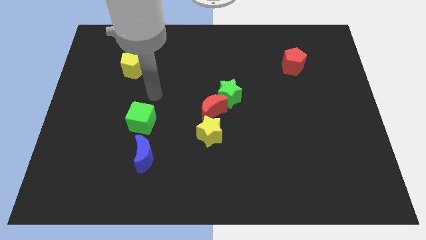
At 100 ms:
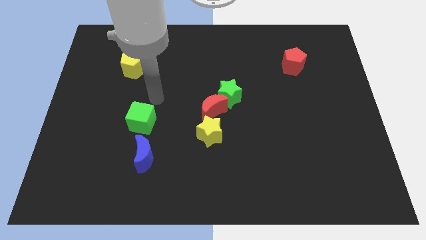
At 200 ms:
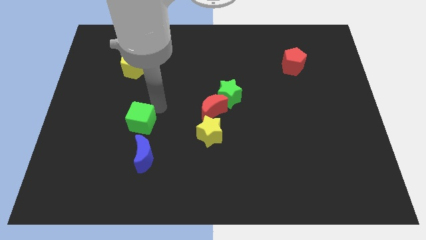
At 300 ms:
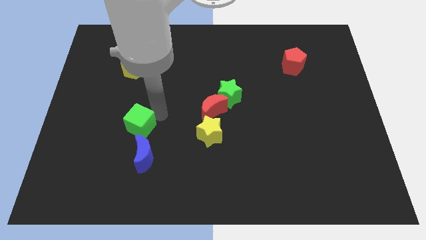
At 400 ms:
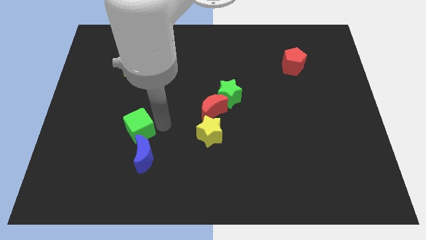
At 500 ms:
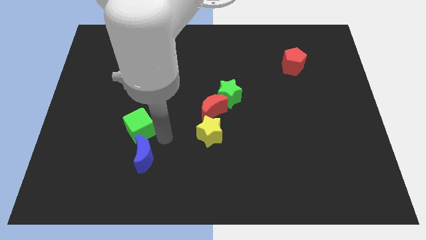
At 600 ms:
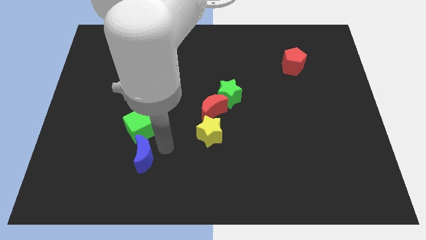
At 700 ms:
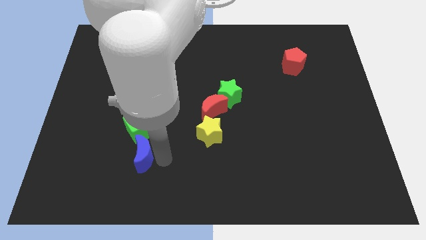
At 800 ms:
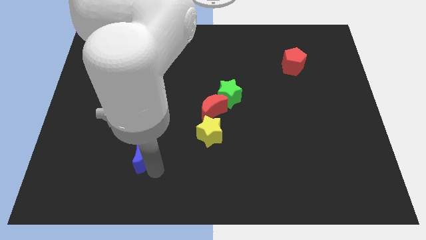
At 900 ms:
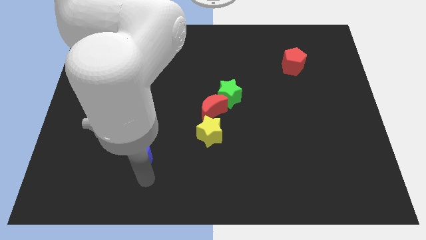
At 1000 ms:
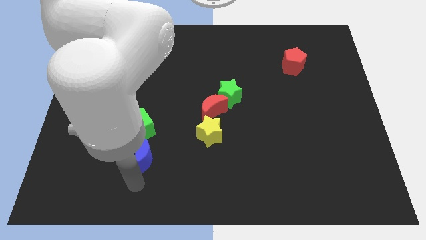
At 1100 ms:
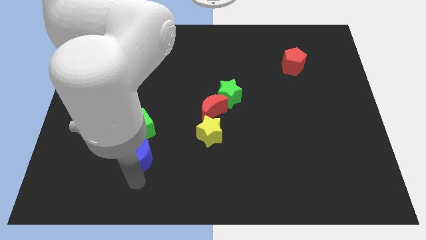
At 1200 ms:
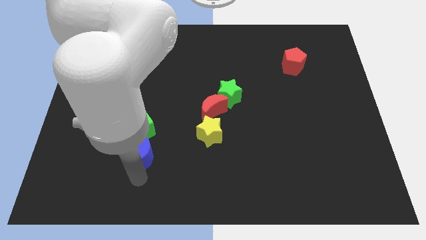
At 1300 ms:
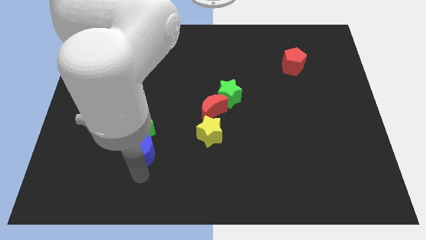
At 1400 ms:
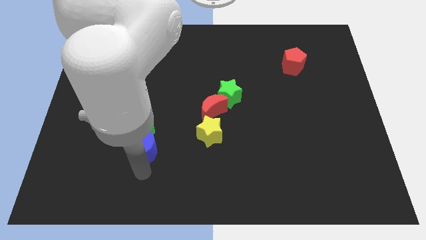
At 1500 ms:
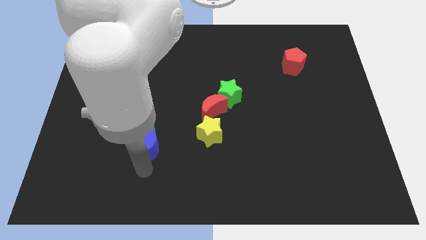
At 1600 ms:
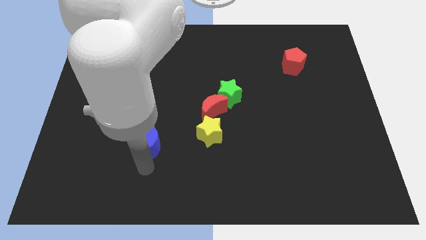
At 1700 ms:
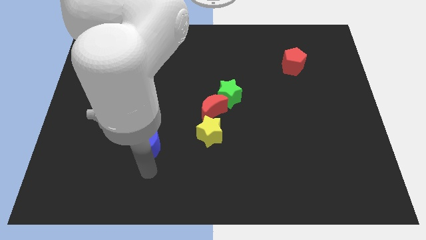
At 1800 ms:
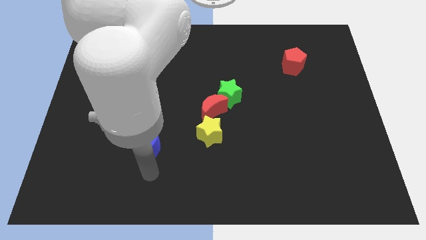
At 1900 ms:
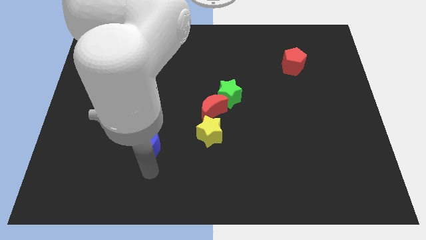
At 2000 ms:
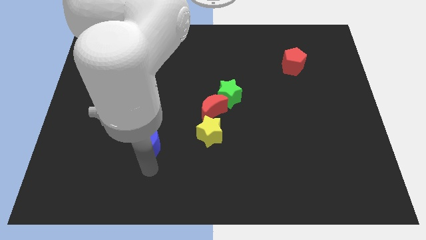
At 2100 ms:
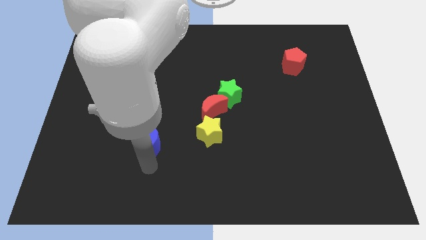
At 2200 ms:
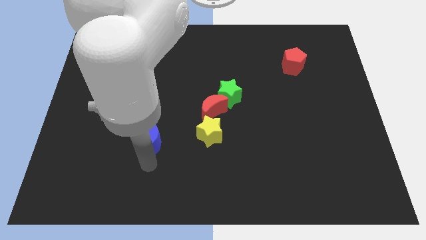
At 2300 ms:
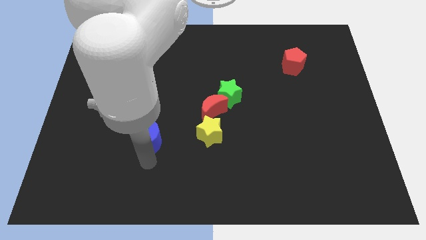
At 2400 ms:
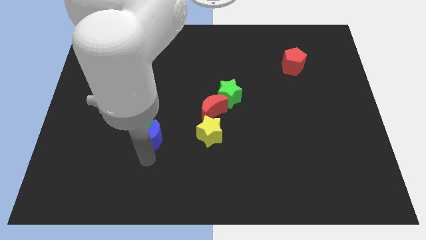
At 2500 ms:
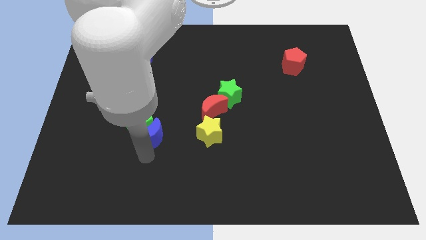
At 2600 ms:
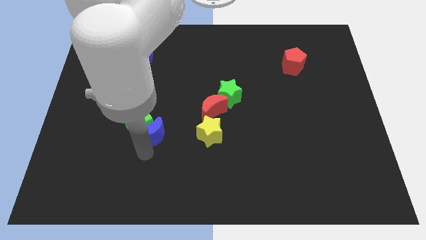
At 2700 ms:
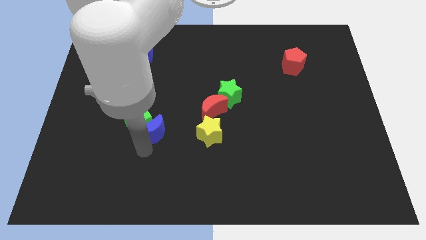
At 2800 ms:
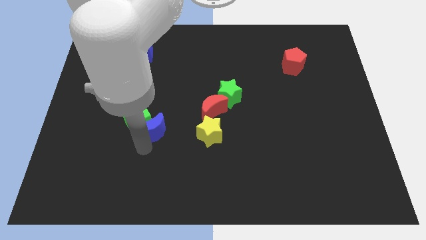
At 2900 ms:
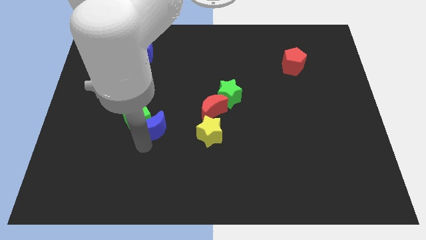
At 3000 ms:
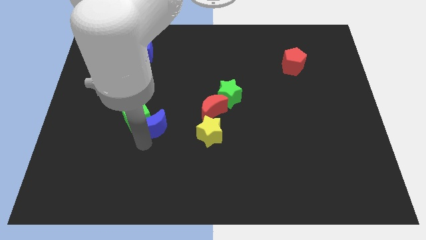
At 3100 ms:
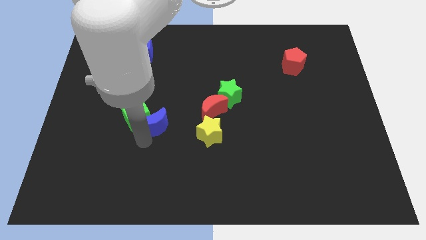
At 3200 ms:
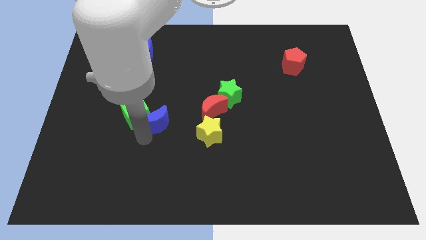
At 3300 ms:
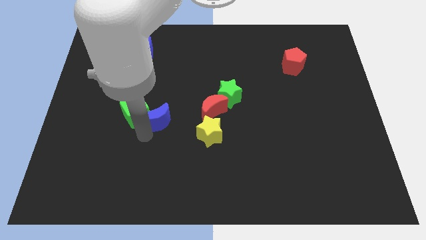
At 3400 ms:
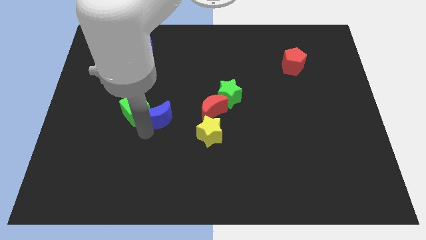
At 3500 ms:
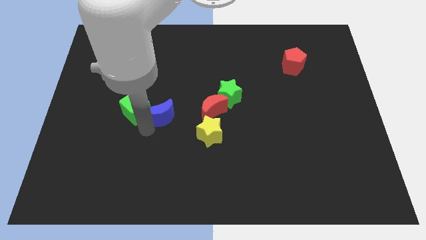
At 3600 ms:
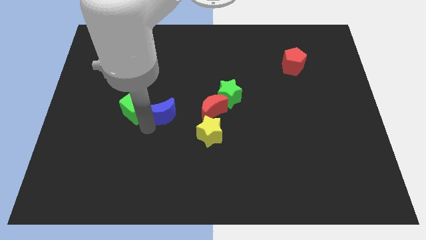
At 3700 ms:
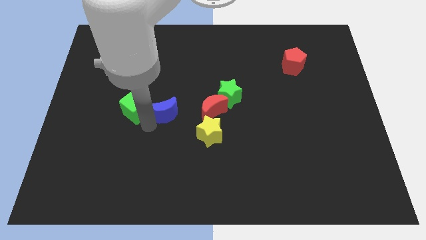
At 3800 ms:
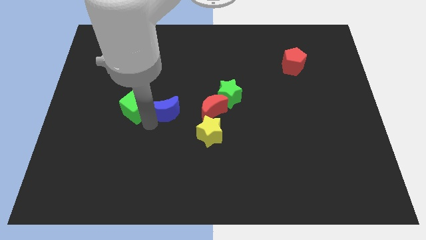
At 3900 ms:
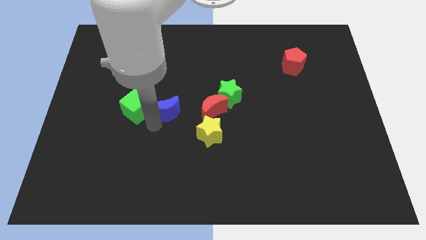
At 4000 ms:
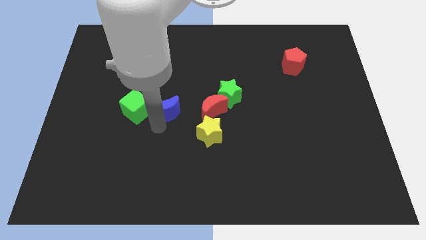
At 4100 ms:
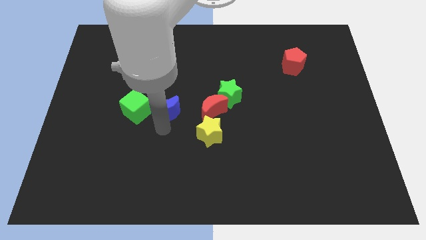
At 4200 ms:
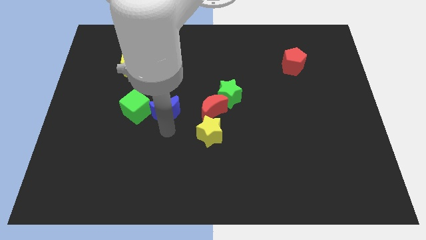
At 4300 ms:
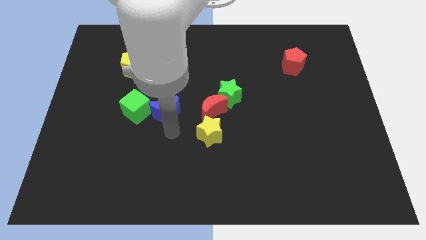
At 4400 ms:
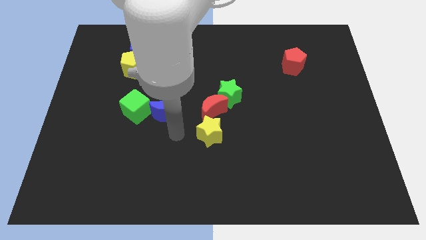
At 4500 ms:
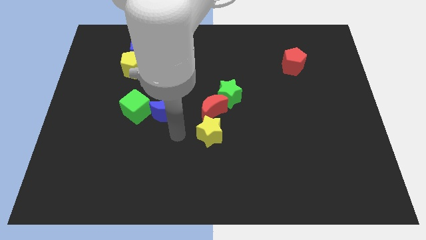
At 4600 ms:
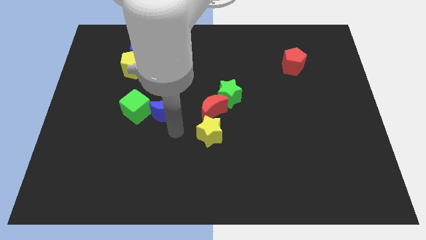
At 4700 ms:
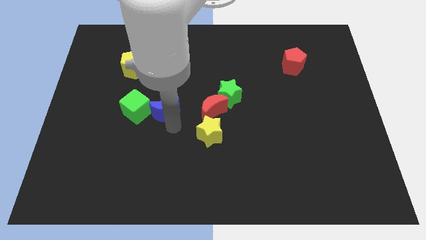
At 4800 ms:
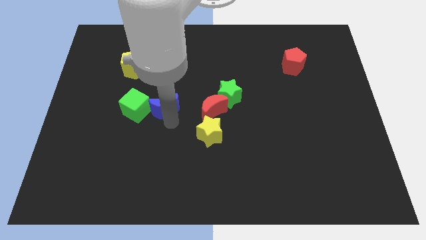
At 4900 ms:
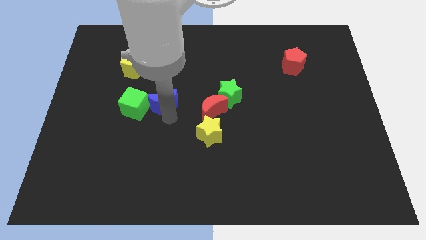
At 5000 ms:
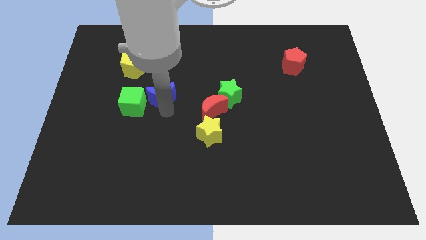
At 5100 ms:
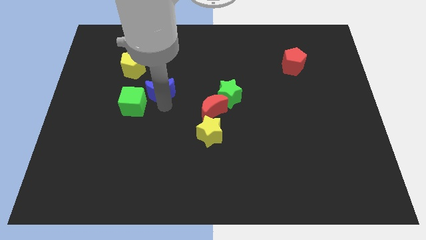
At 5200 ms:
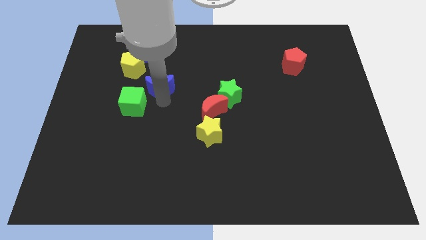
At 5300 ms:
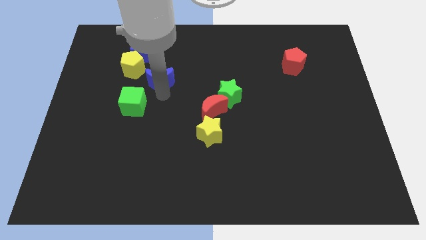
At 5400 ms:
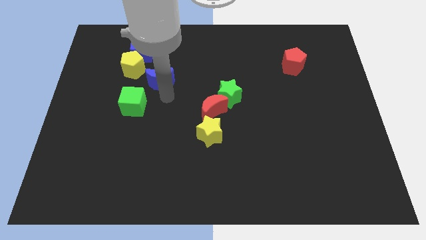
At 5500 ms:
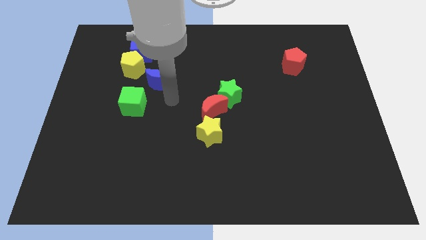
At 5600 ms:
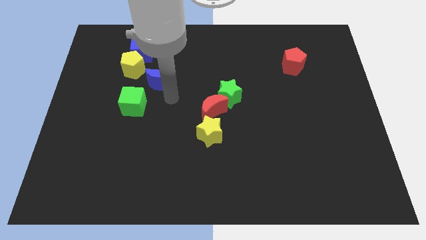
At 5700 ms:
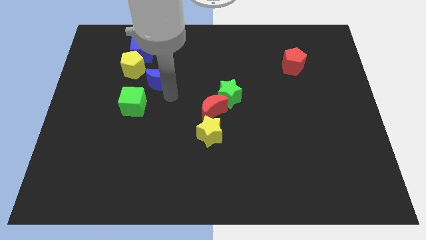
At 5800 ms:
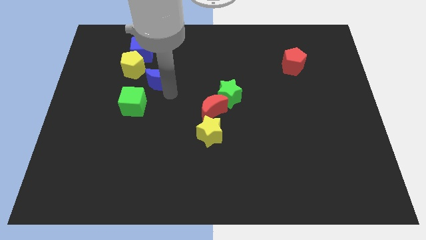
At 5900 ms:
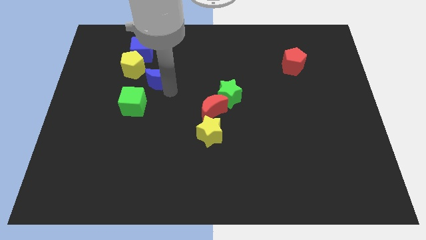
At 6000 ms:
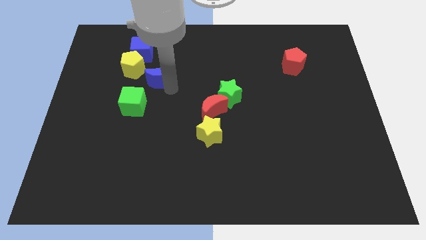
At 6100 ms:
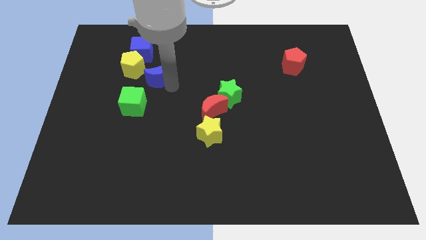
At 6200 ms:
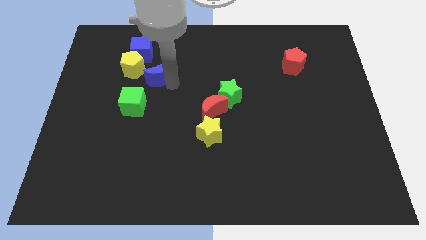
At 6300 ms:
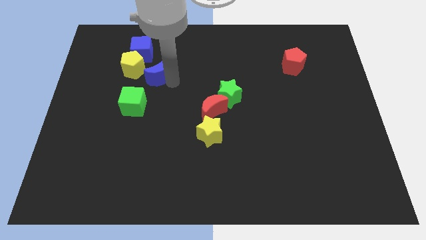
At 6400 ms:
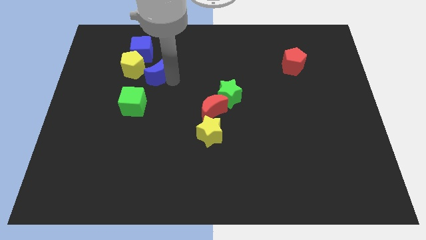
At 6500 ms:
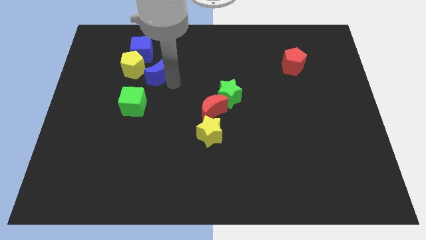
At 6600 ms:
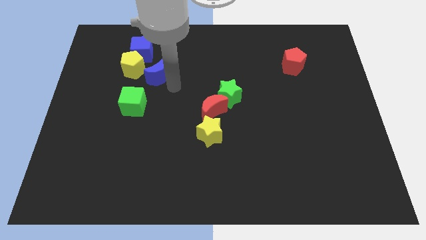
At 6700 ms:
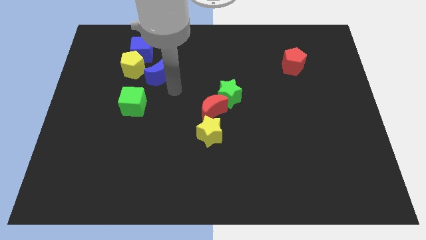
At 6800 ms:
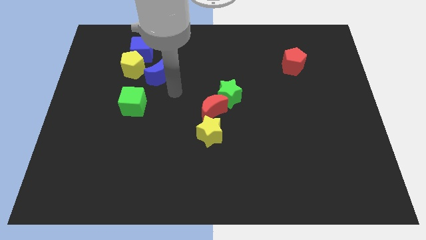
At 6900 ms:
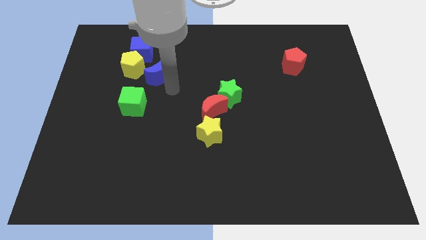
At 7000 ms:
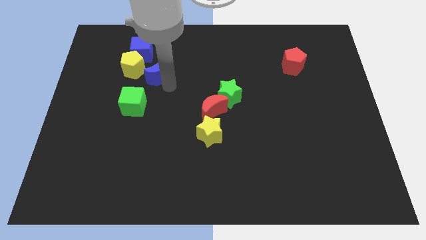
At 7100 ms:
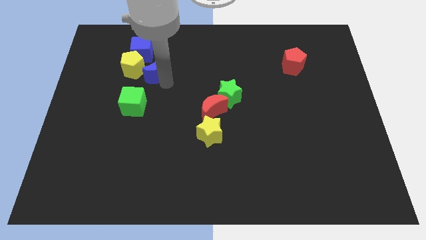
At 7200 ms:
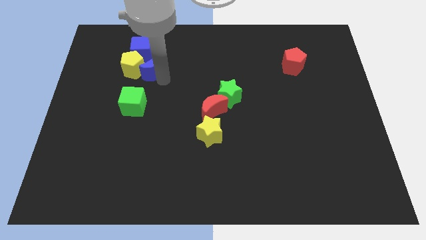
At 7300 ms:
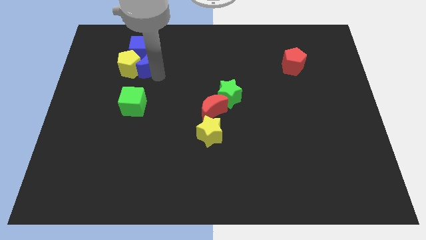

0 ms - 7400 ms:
slide the blue moon towards the blue cube
